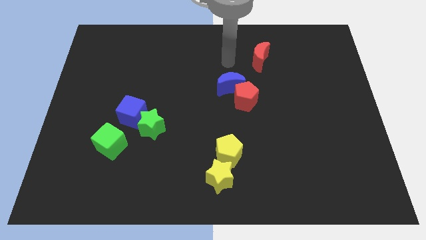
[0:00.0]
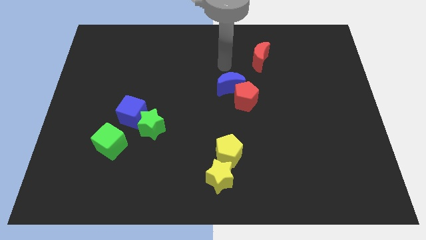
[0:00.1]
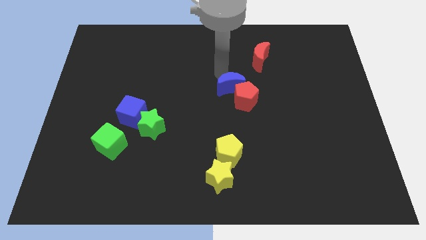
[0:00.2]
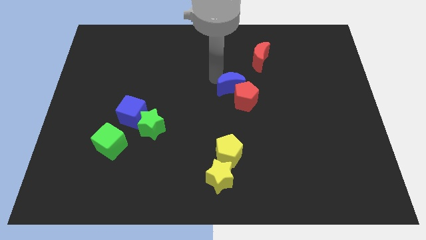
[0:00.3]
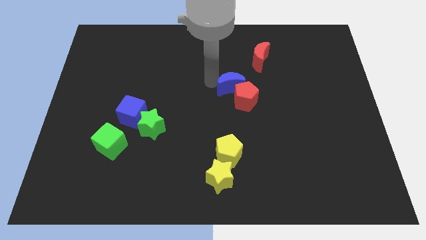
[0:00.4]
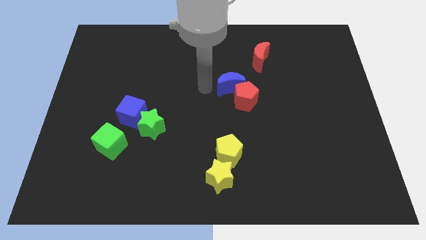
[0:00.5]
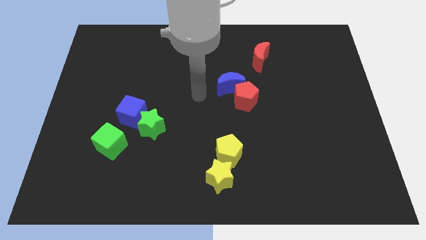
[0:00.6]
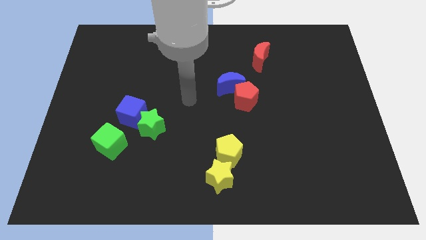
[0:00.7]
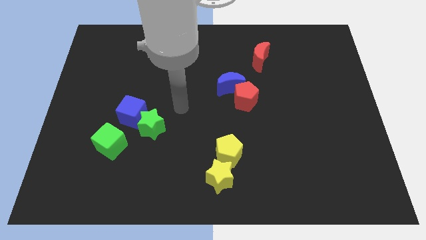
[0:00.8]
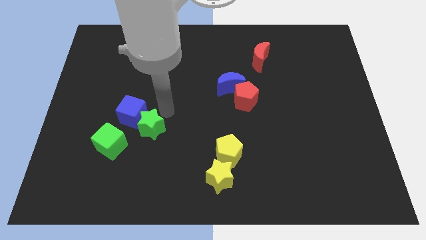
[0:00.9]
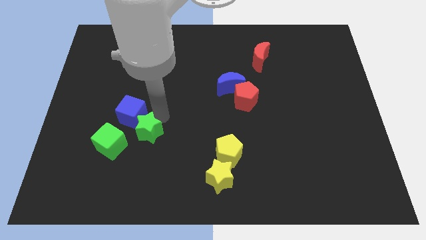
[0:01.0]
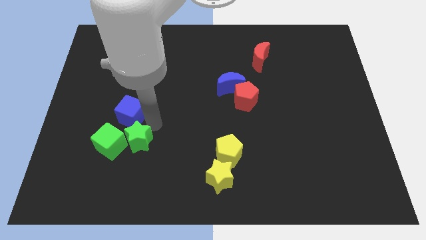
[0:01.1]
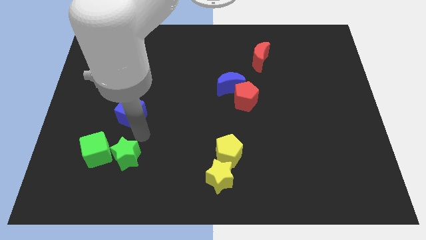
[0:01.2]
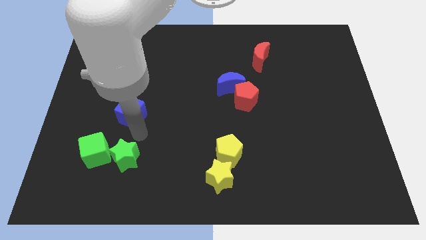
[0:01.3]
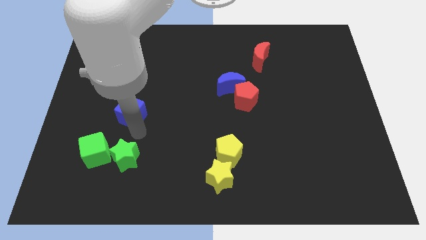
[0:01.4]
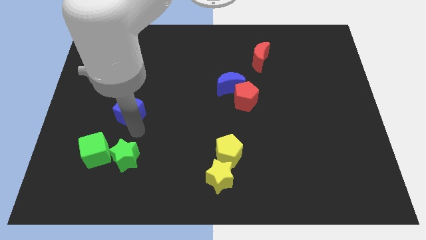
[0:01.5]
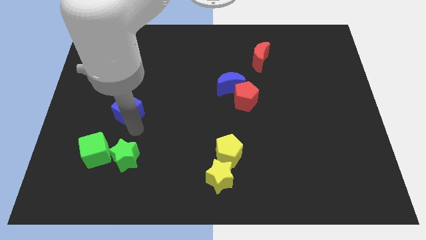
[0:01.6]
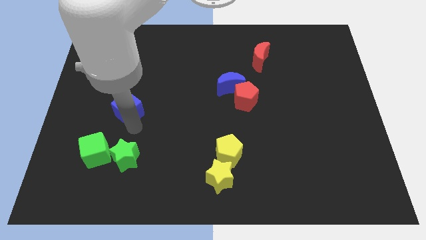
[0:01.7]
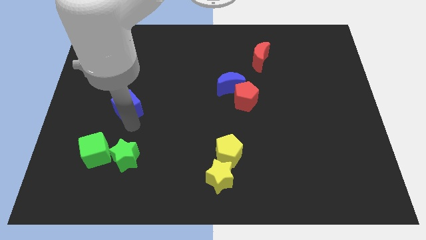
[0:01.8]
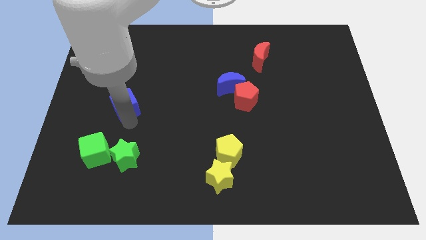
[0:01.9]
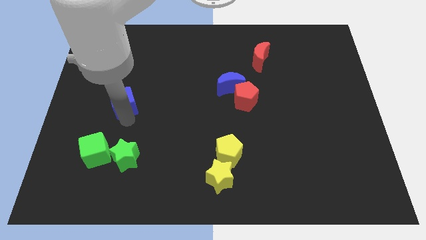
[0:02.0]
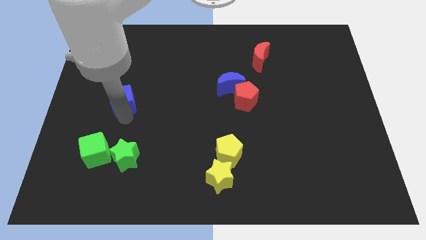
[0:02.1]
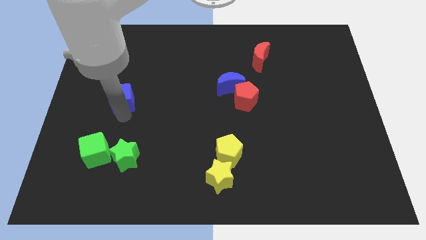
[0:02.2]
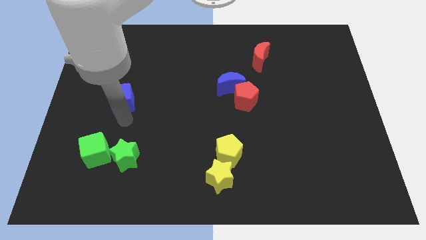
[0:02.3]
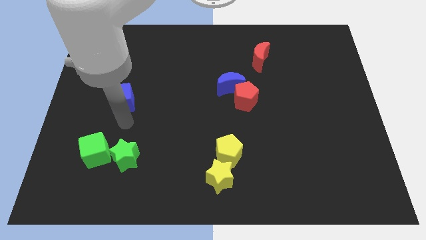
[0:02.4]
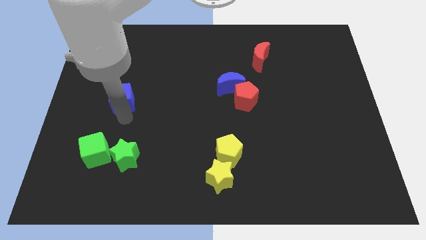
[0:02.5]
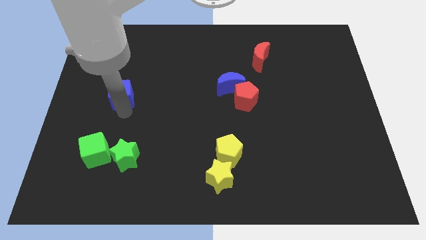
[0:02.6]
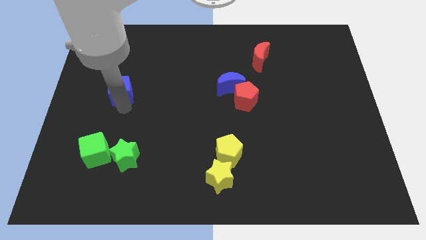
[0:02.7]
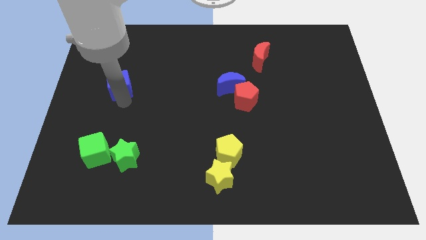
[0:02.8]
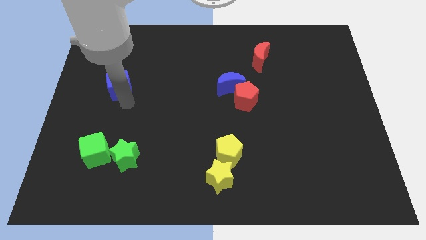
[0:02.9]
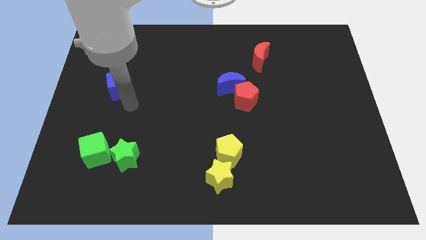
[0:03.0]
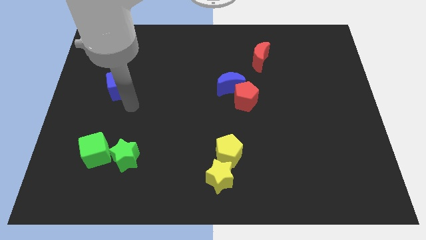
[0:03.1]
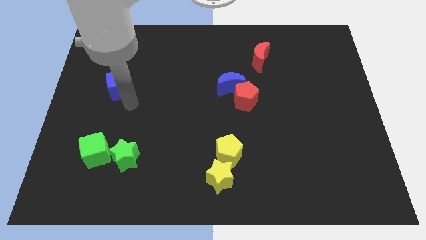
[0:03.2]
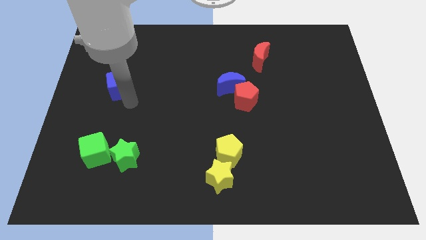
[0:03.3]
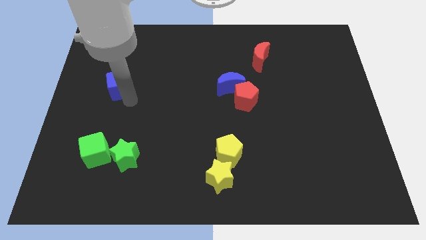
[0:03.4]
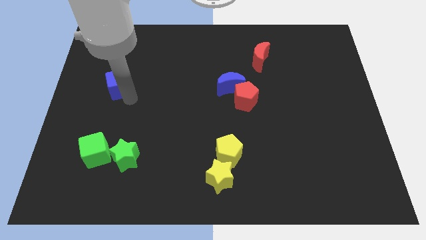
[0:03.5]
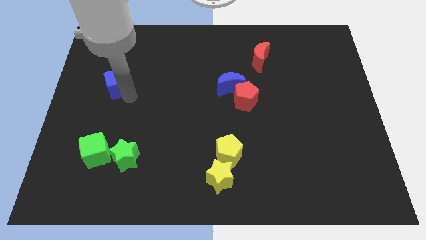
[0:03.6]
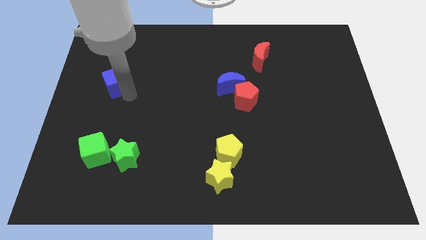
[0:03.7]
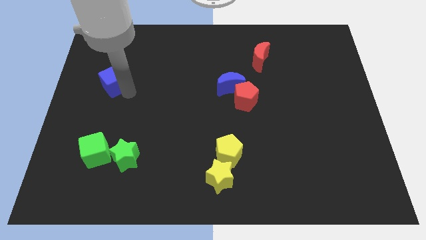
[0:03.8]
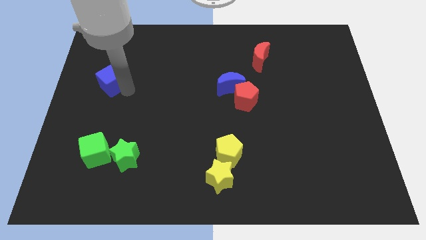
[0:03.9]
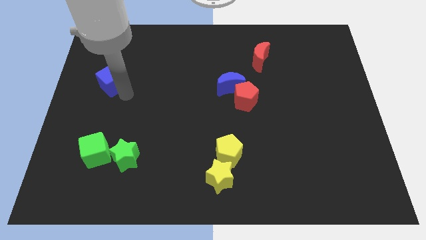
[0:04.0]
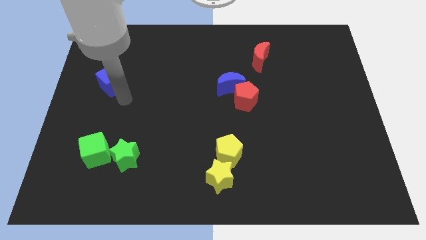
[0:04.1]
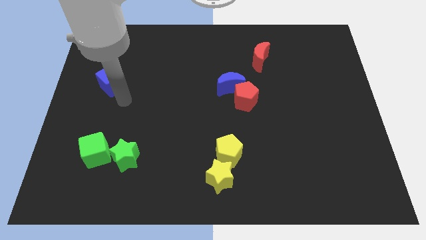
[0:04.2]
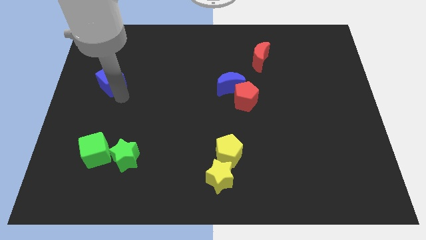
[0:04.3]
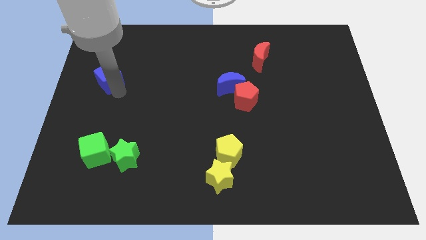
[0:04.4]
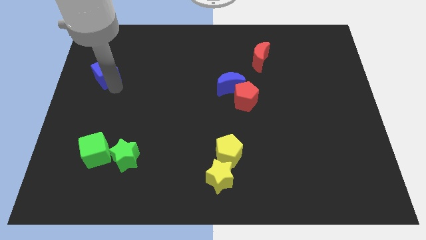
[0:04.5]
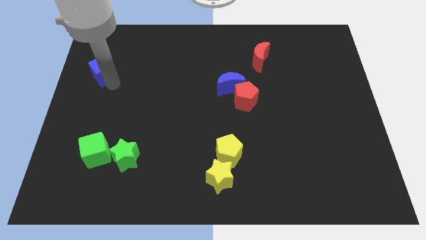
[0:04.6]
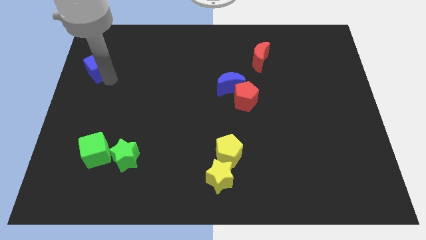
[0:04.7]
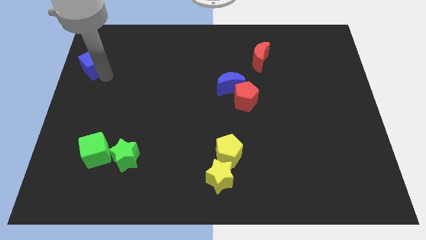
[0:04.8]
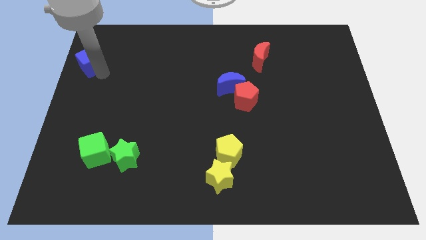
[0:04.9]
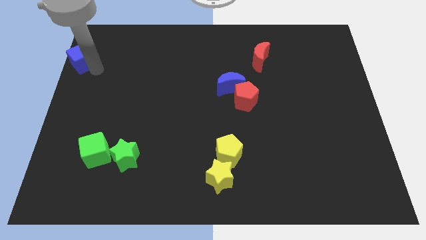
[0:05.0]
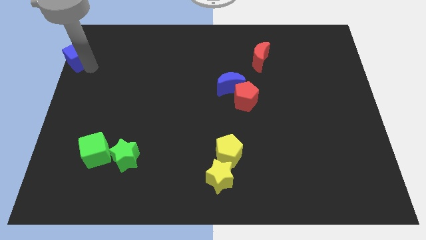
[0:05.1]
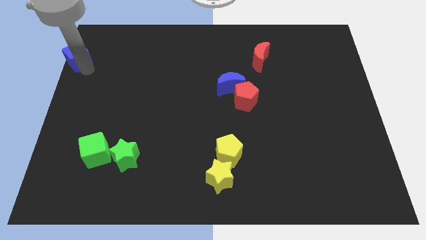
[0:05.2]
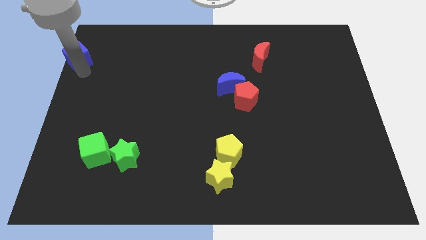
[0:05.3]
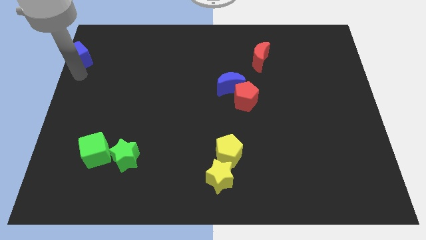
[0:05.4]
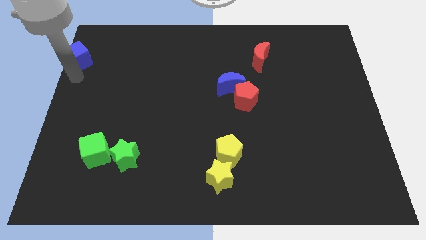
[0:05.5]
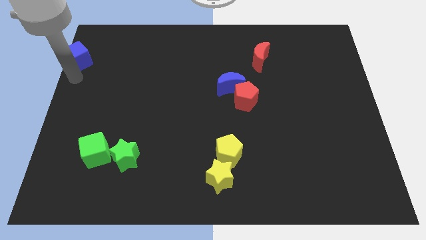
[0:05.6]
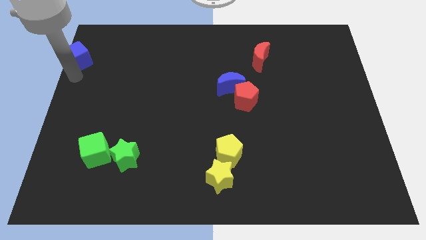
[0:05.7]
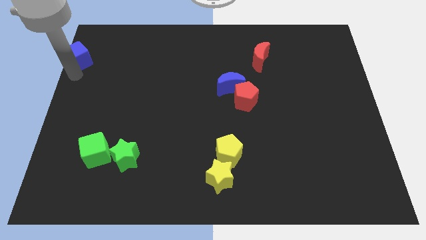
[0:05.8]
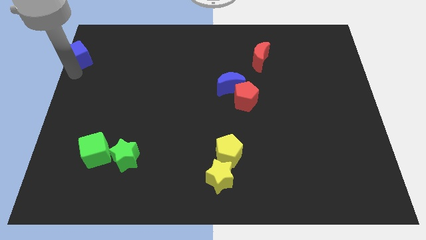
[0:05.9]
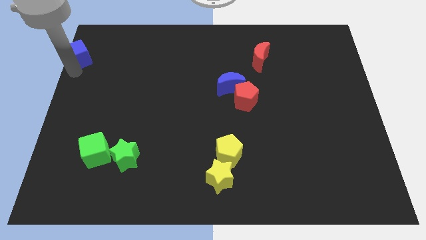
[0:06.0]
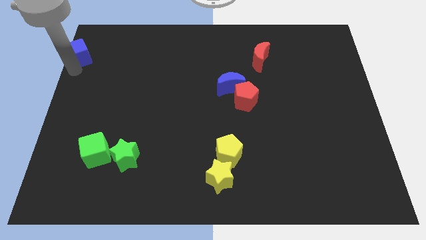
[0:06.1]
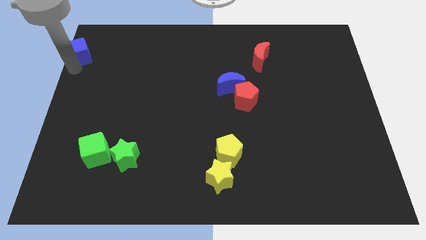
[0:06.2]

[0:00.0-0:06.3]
move the blue cube to the top left
